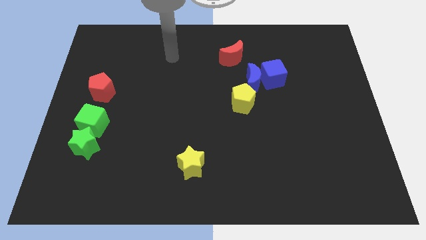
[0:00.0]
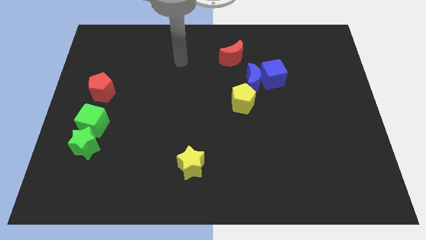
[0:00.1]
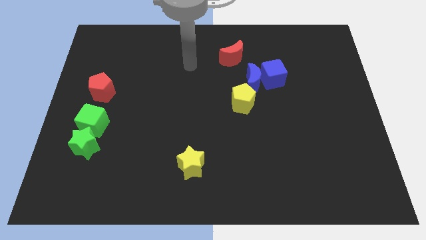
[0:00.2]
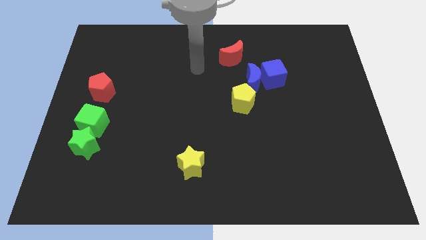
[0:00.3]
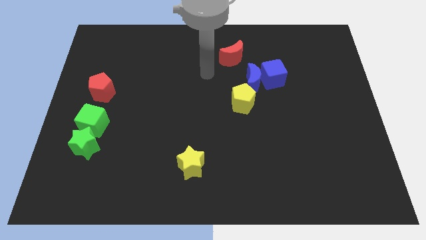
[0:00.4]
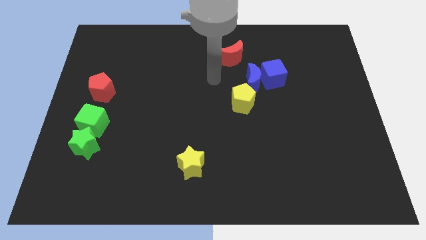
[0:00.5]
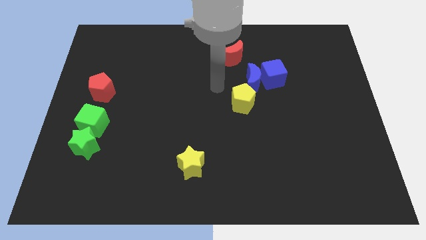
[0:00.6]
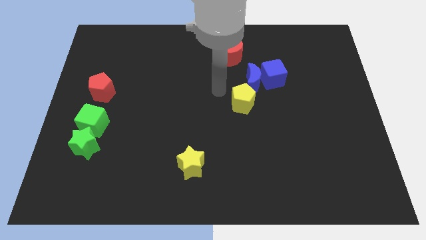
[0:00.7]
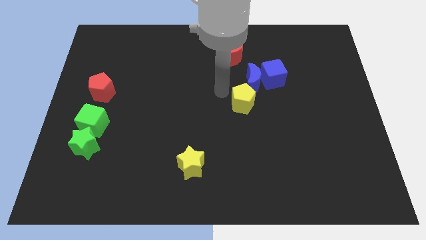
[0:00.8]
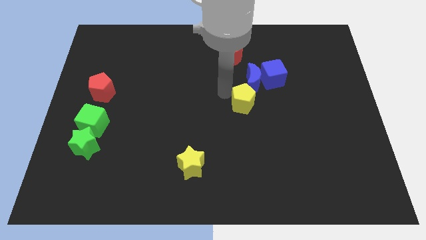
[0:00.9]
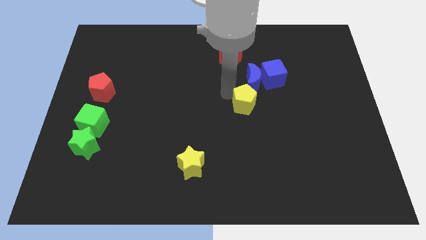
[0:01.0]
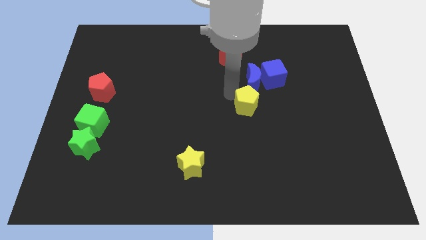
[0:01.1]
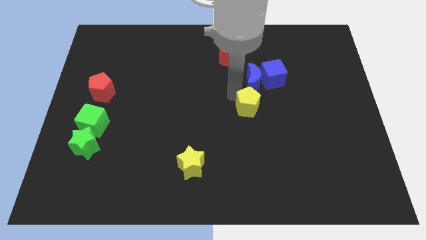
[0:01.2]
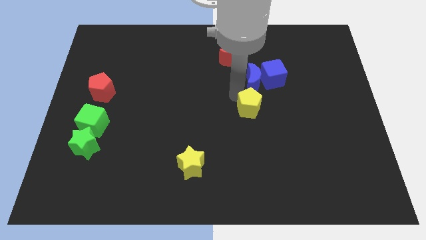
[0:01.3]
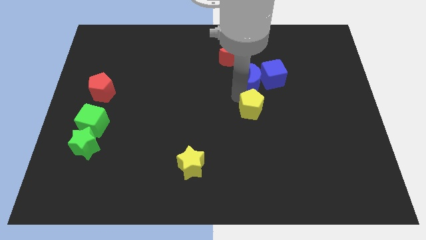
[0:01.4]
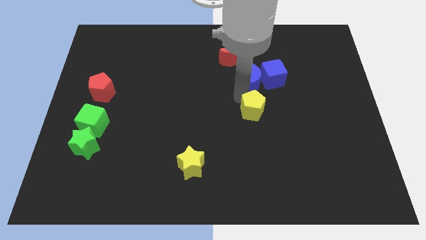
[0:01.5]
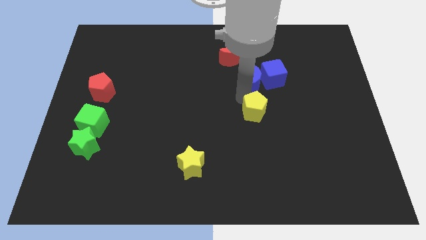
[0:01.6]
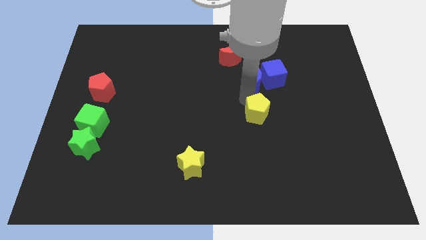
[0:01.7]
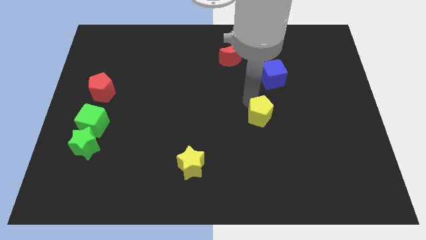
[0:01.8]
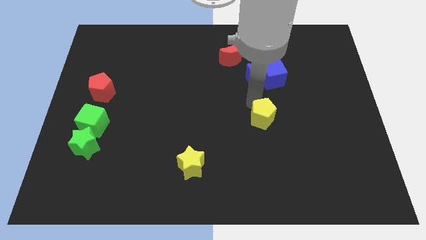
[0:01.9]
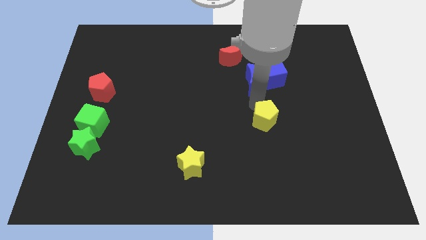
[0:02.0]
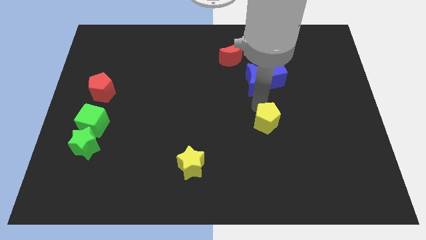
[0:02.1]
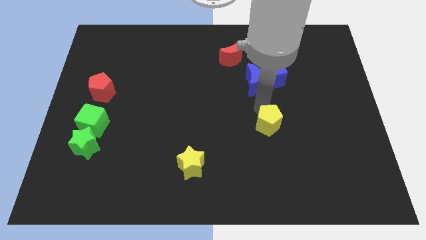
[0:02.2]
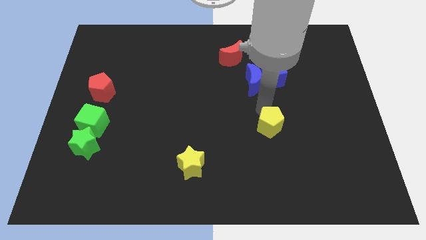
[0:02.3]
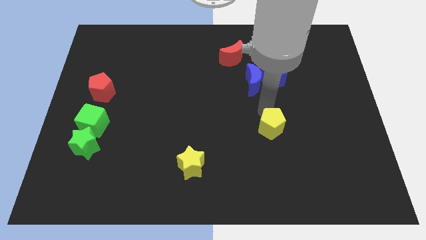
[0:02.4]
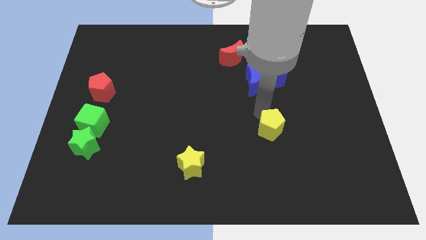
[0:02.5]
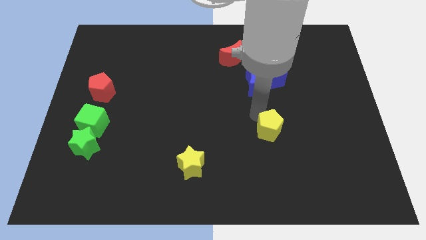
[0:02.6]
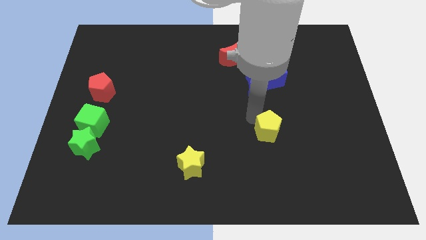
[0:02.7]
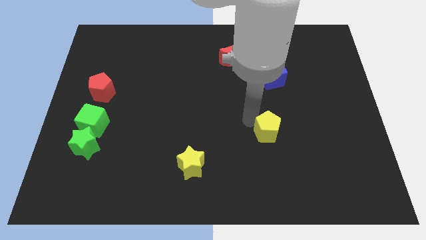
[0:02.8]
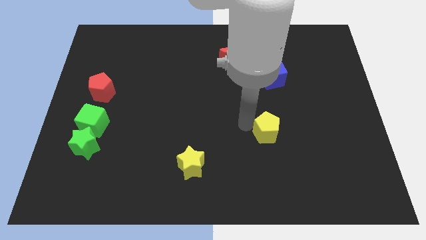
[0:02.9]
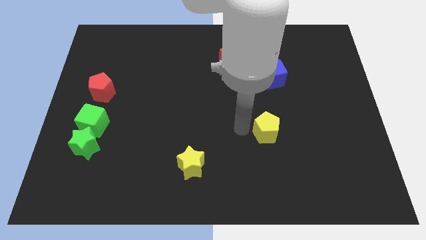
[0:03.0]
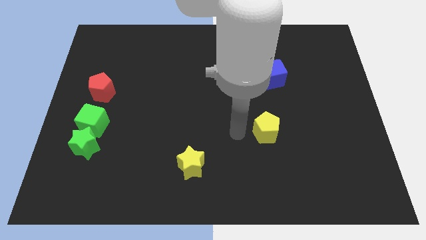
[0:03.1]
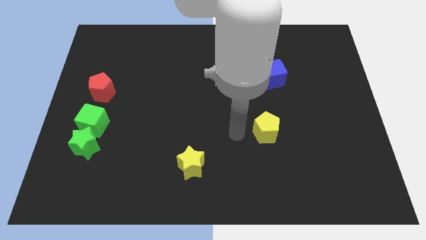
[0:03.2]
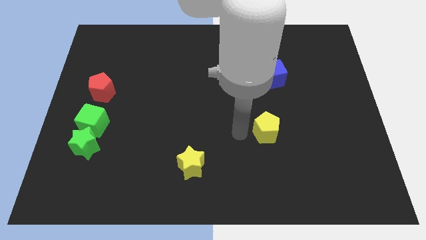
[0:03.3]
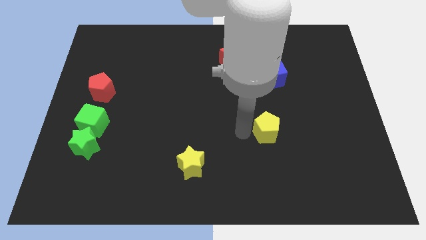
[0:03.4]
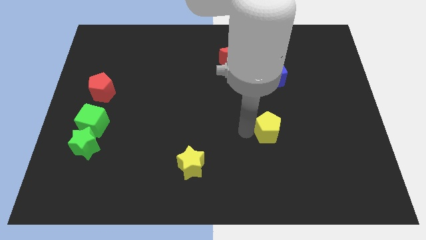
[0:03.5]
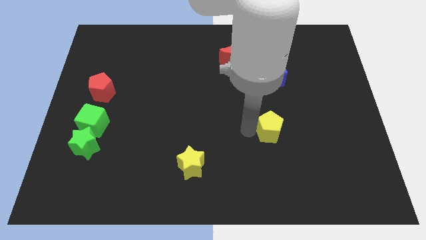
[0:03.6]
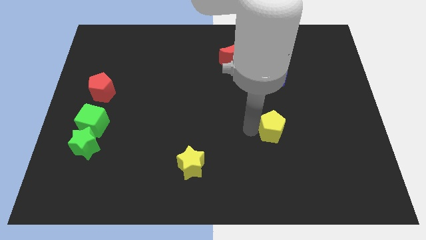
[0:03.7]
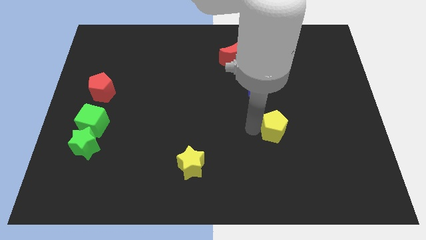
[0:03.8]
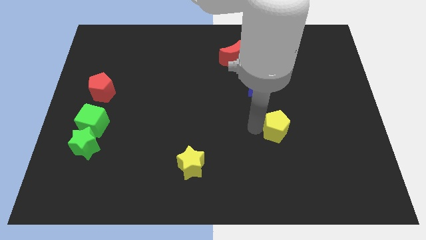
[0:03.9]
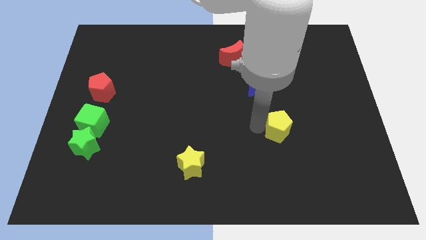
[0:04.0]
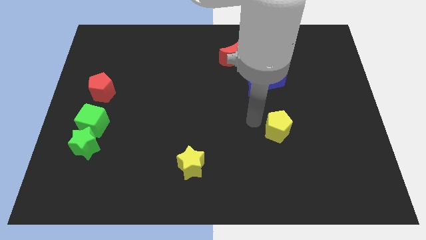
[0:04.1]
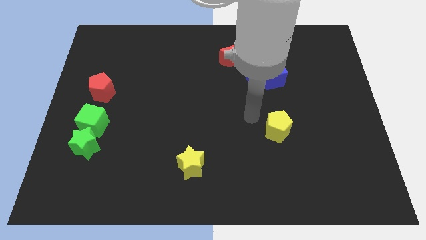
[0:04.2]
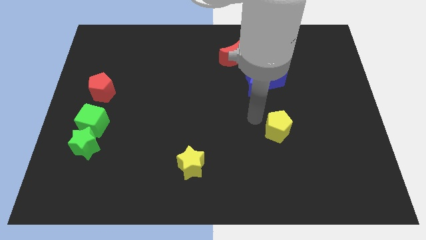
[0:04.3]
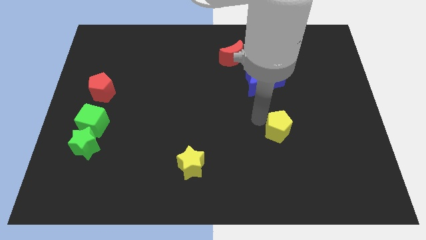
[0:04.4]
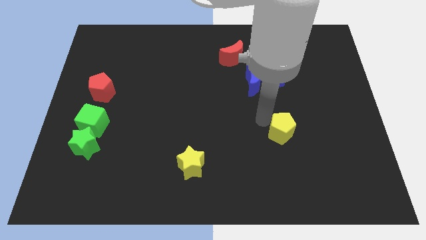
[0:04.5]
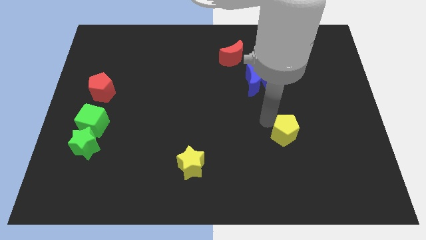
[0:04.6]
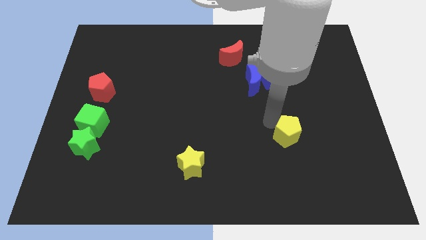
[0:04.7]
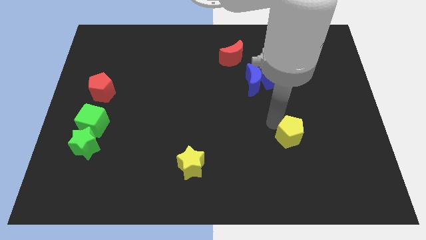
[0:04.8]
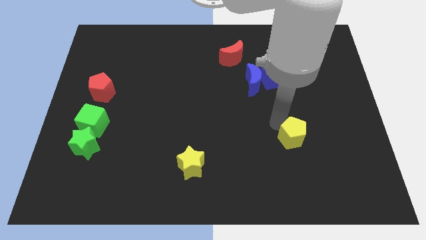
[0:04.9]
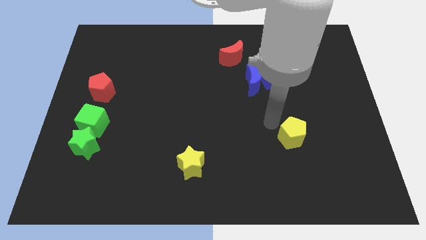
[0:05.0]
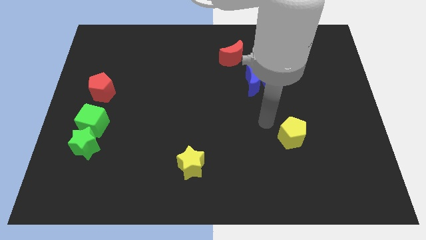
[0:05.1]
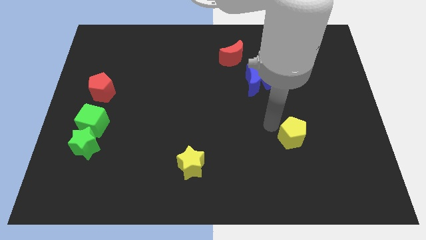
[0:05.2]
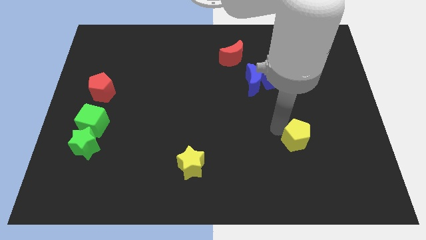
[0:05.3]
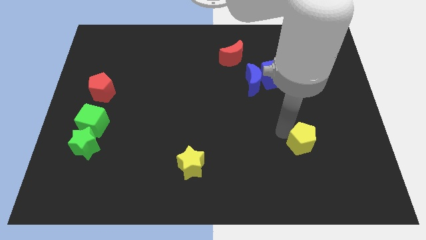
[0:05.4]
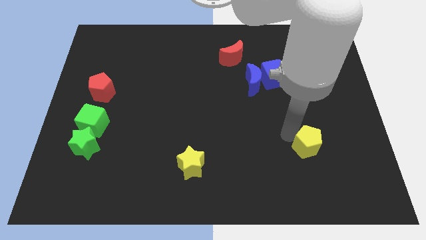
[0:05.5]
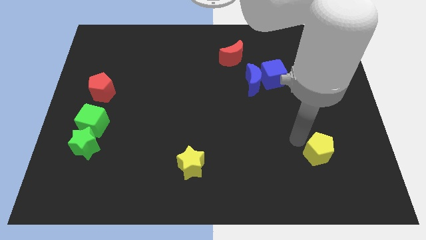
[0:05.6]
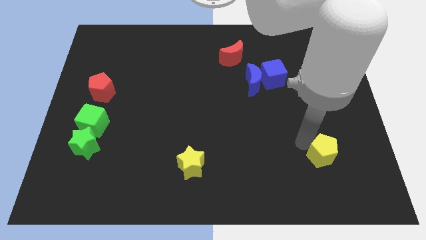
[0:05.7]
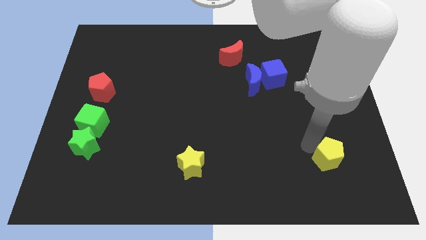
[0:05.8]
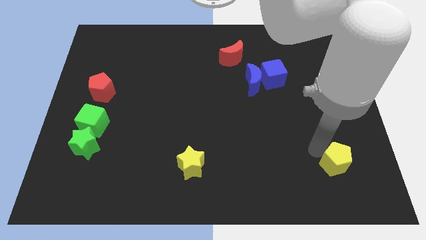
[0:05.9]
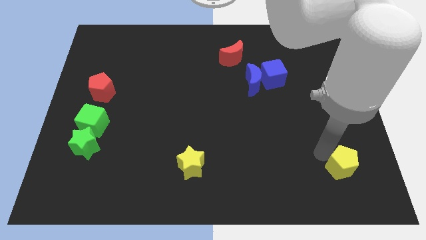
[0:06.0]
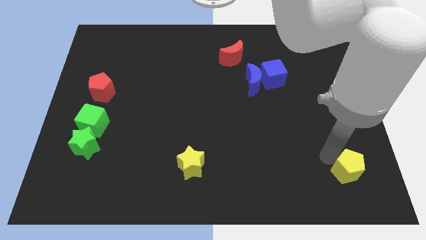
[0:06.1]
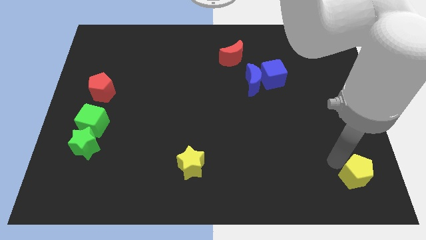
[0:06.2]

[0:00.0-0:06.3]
slide the yellow pentagon to the bottom right of the board
